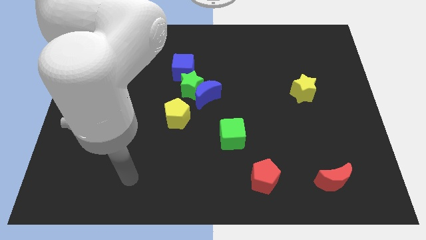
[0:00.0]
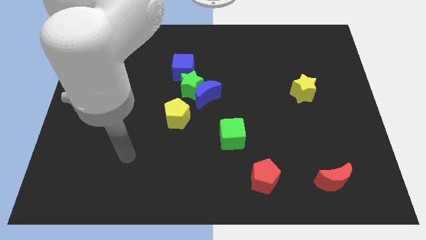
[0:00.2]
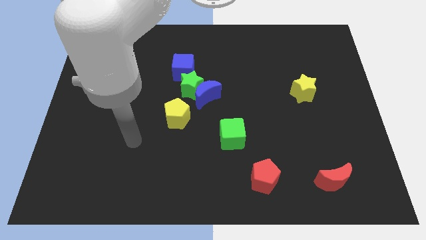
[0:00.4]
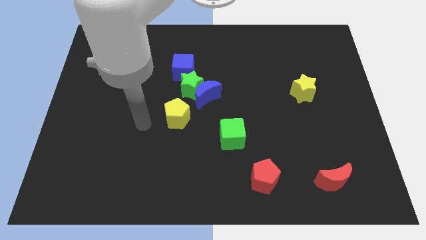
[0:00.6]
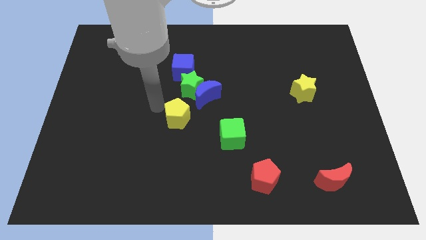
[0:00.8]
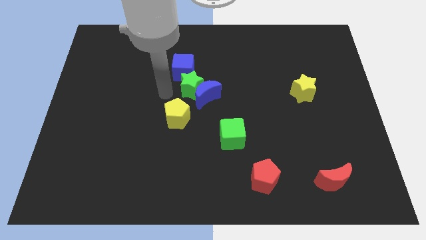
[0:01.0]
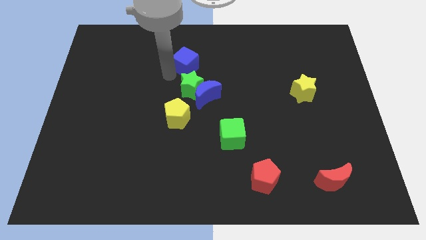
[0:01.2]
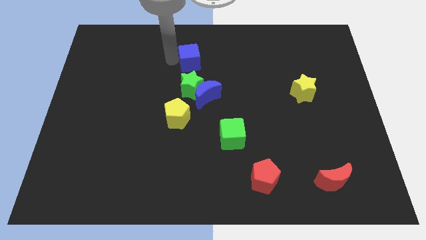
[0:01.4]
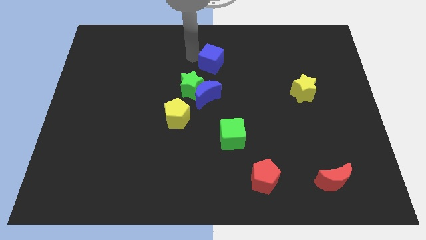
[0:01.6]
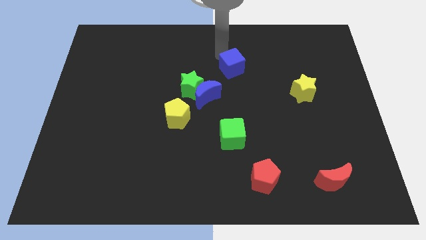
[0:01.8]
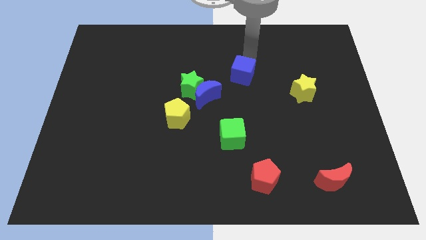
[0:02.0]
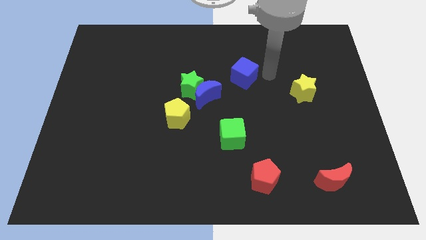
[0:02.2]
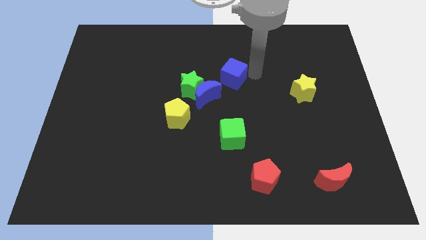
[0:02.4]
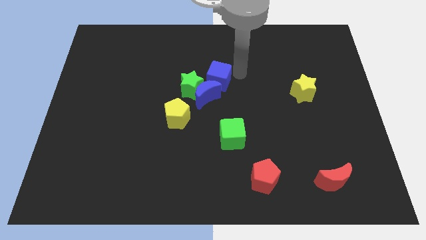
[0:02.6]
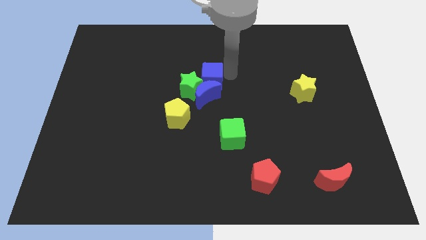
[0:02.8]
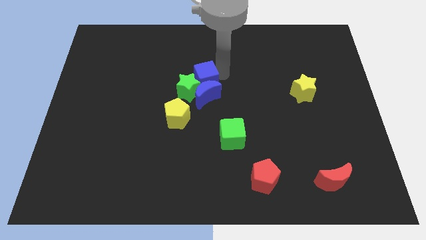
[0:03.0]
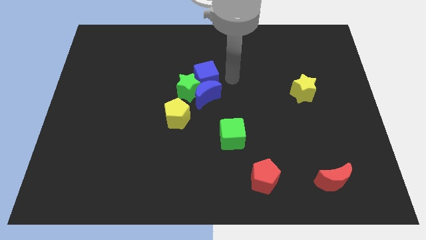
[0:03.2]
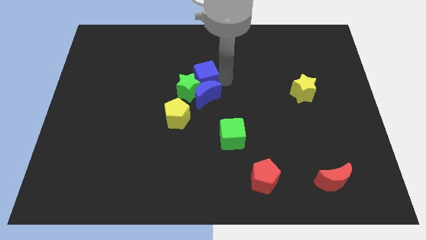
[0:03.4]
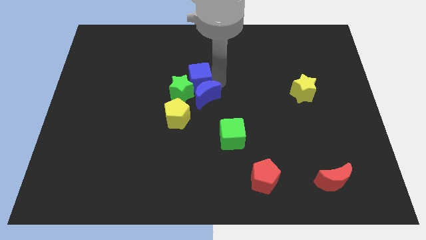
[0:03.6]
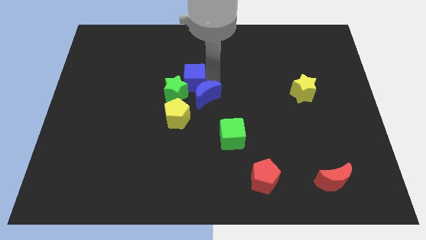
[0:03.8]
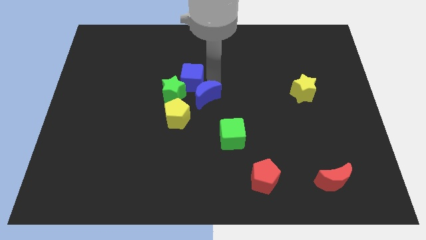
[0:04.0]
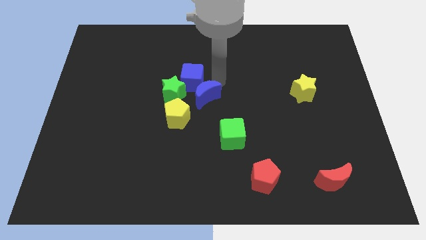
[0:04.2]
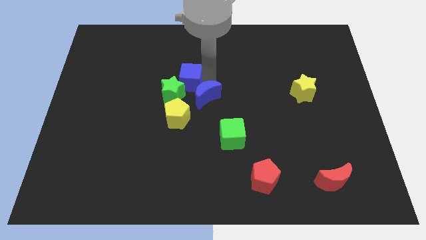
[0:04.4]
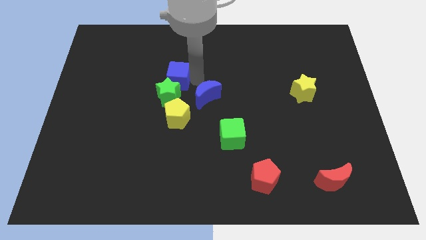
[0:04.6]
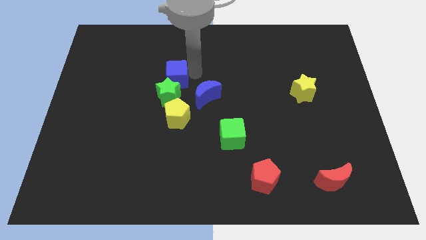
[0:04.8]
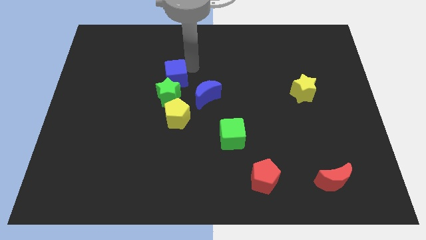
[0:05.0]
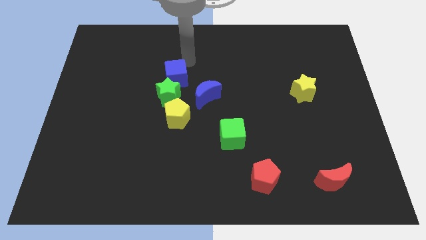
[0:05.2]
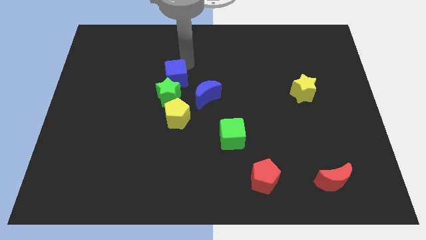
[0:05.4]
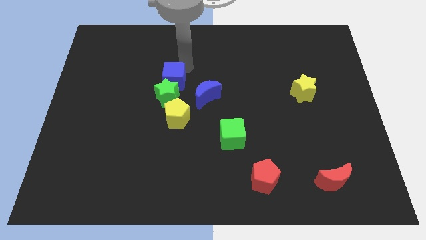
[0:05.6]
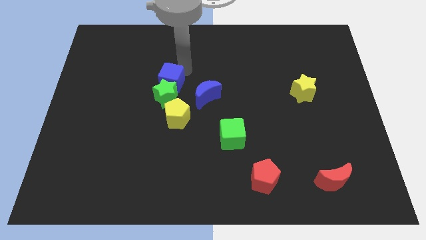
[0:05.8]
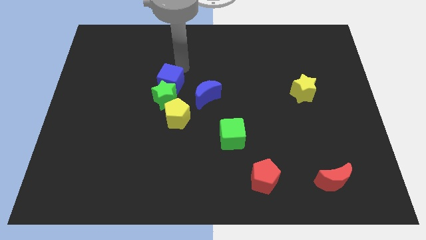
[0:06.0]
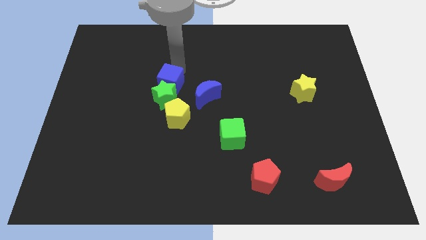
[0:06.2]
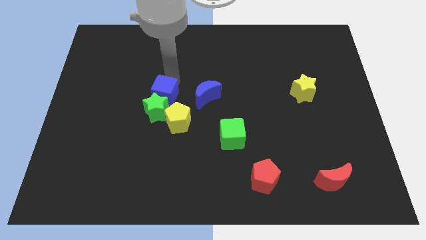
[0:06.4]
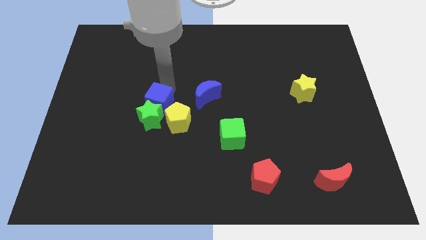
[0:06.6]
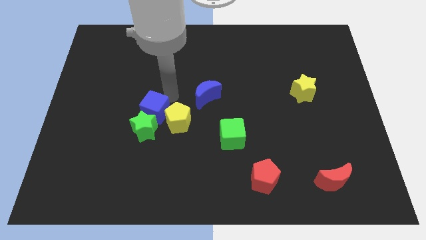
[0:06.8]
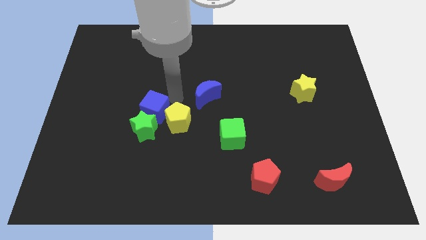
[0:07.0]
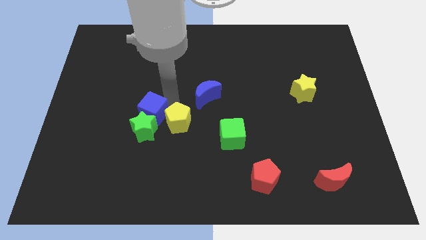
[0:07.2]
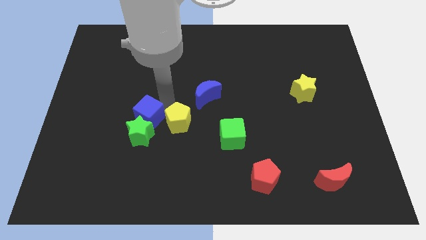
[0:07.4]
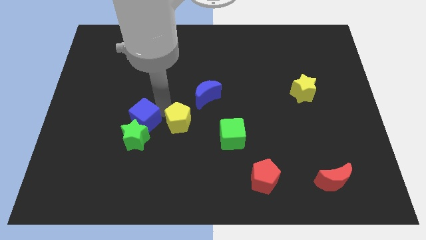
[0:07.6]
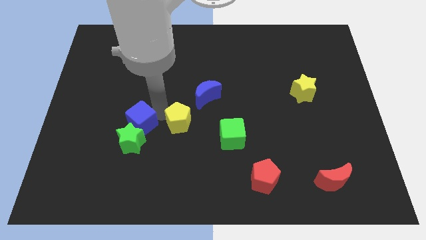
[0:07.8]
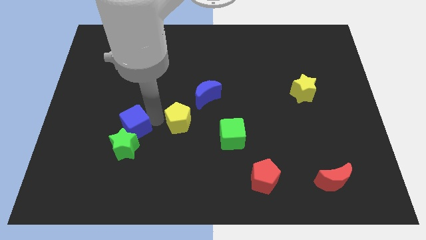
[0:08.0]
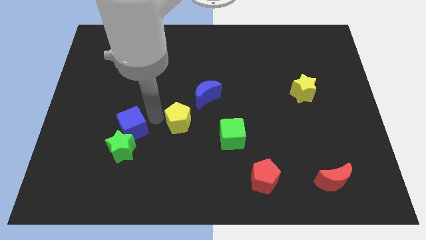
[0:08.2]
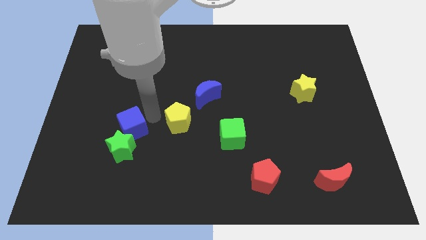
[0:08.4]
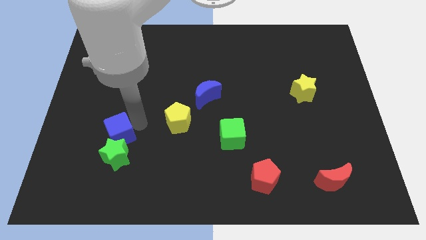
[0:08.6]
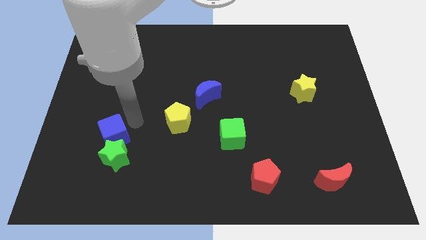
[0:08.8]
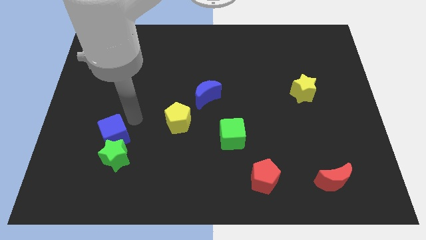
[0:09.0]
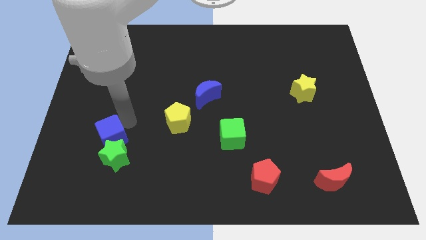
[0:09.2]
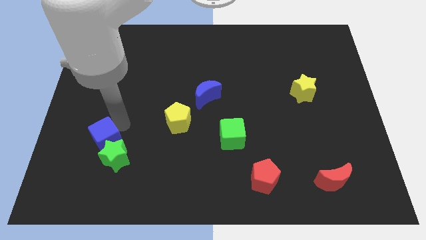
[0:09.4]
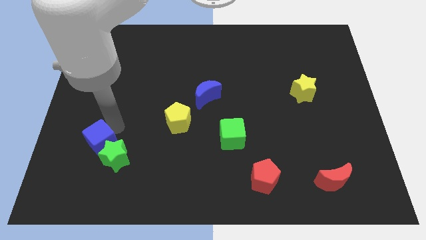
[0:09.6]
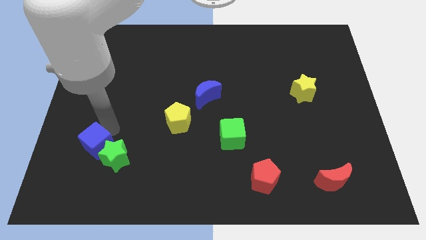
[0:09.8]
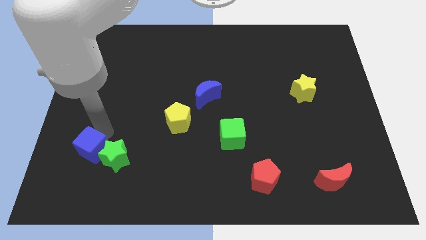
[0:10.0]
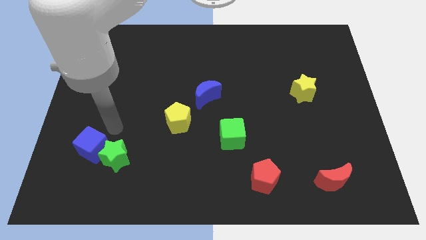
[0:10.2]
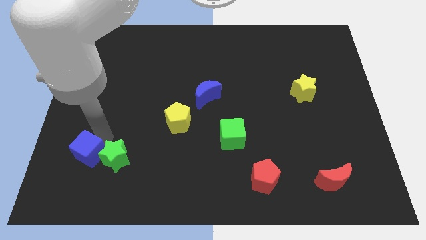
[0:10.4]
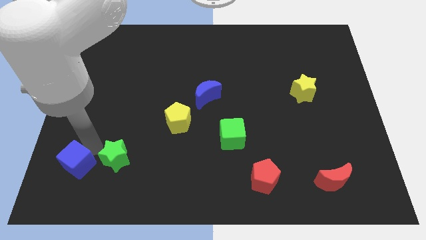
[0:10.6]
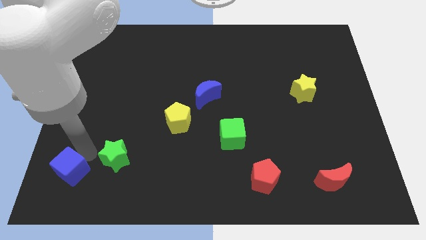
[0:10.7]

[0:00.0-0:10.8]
move the blue cube to the bottom left corner
